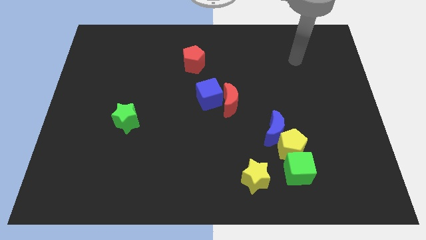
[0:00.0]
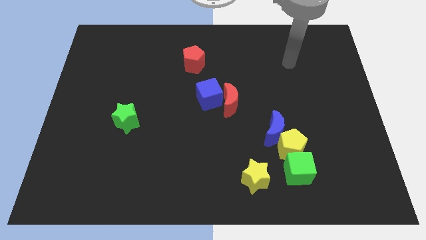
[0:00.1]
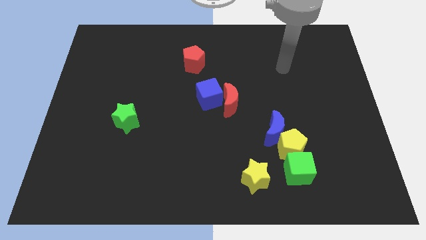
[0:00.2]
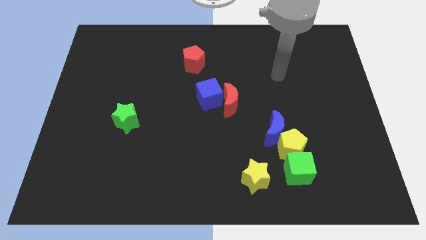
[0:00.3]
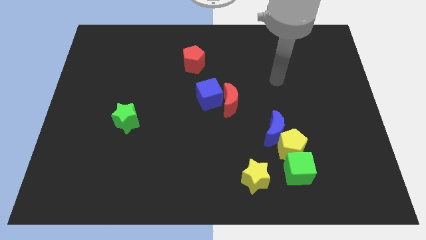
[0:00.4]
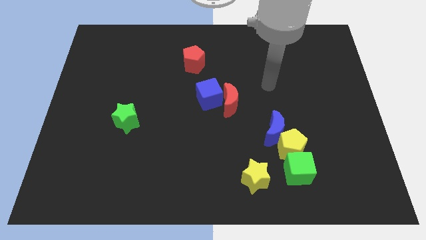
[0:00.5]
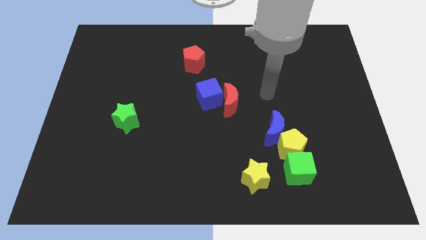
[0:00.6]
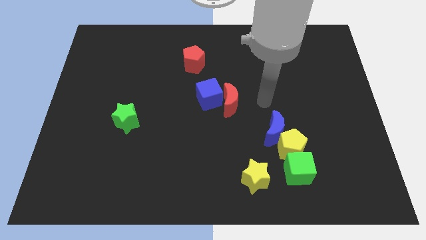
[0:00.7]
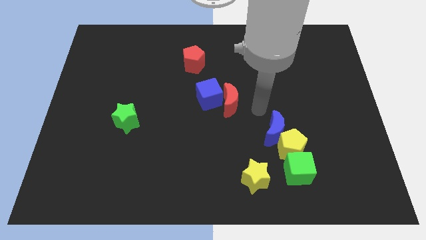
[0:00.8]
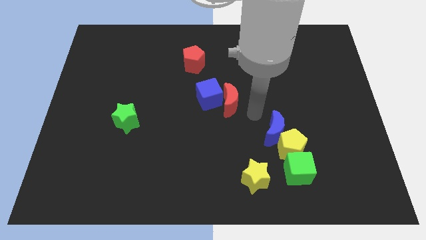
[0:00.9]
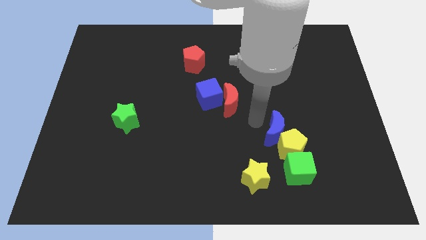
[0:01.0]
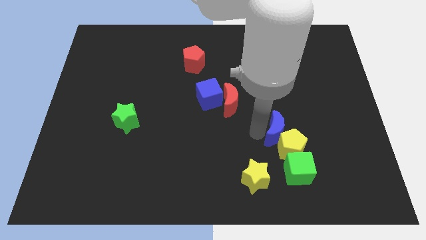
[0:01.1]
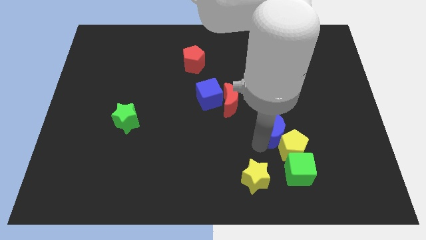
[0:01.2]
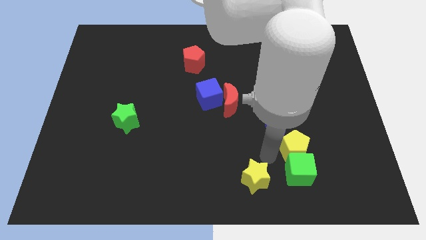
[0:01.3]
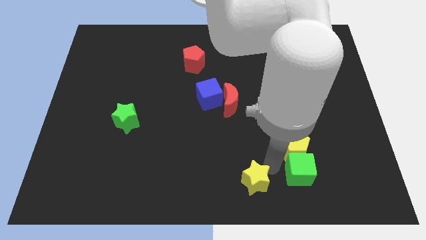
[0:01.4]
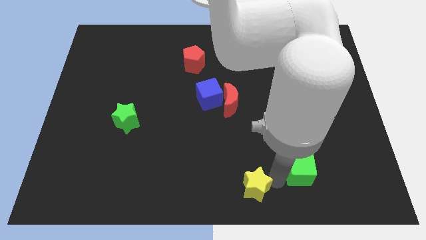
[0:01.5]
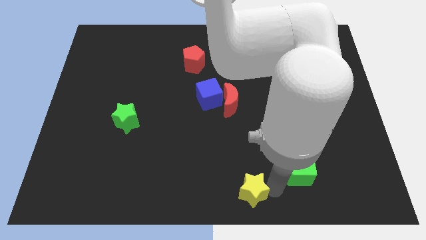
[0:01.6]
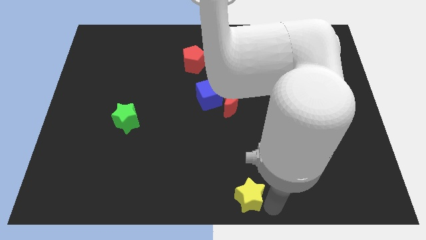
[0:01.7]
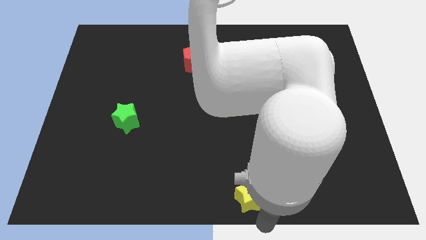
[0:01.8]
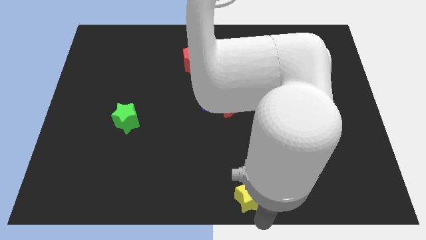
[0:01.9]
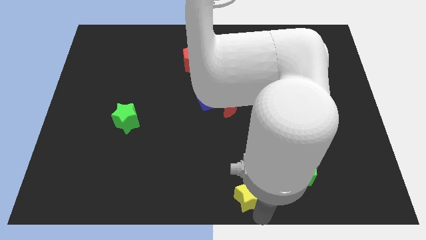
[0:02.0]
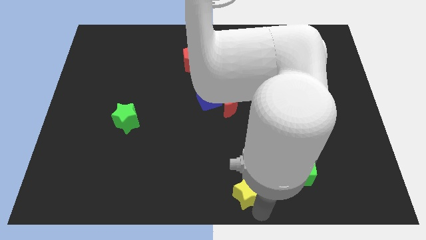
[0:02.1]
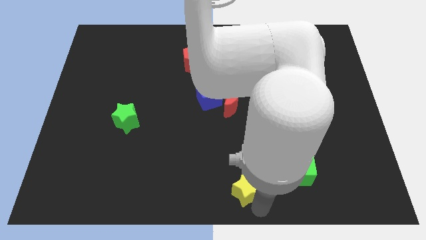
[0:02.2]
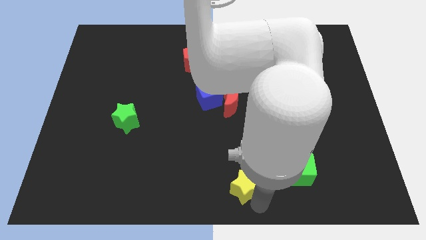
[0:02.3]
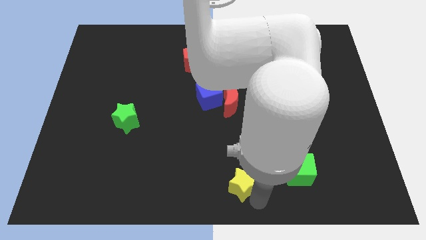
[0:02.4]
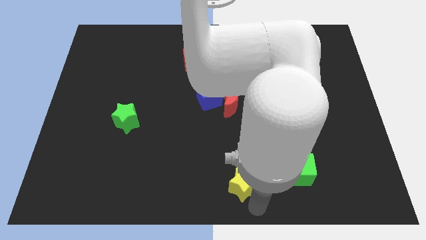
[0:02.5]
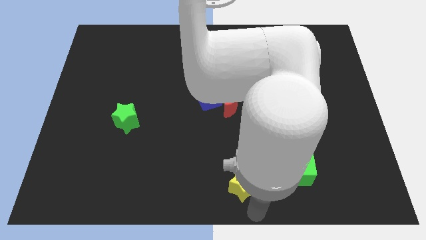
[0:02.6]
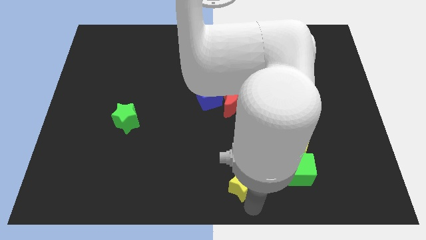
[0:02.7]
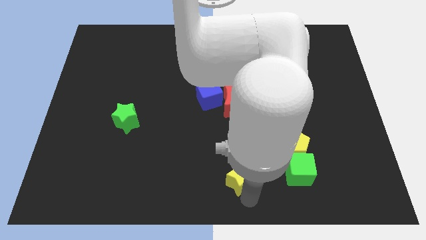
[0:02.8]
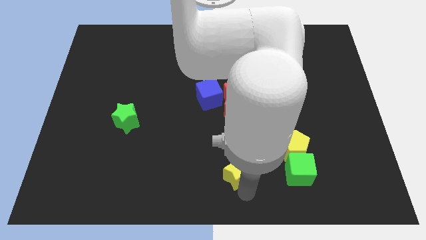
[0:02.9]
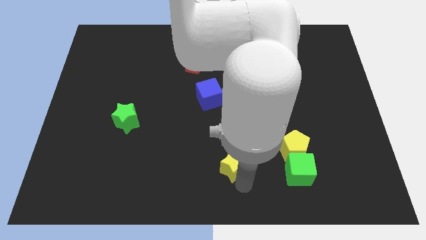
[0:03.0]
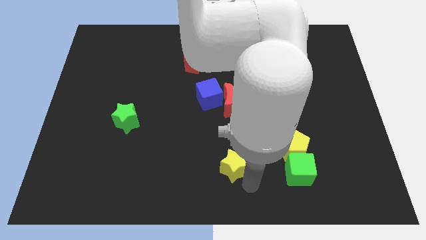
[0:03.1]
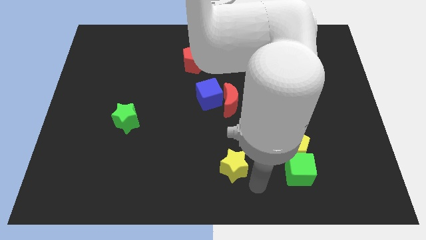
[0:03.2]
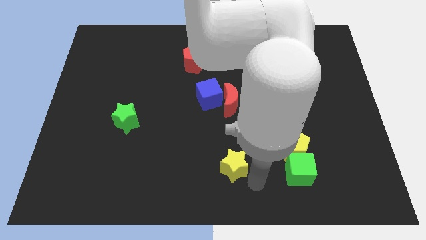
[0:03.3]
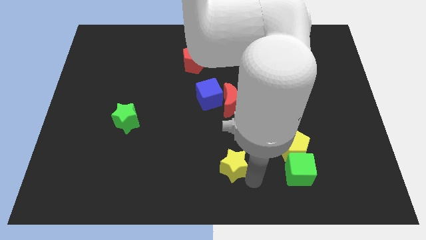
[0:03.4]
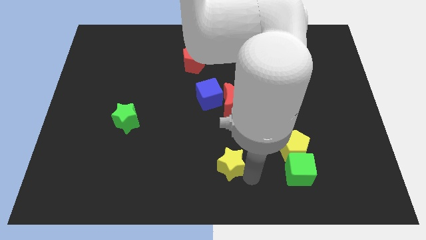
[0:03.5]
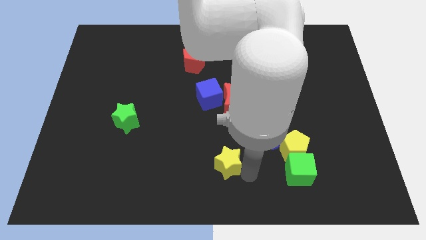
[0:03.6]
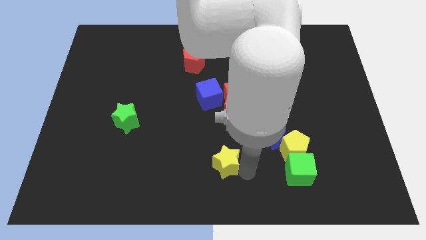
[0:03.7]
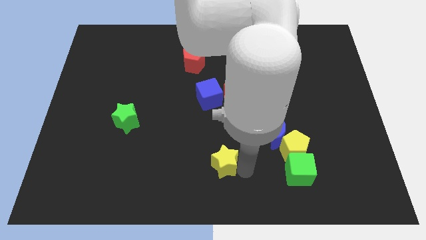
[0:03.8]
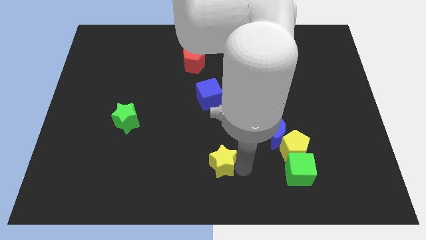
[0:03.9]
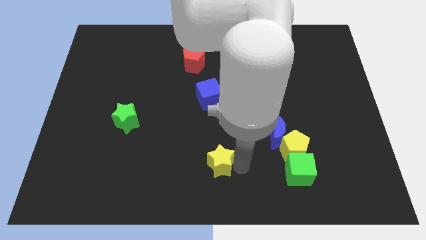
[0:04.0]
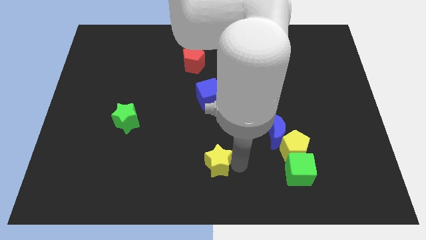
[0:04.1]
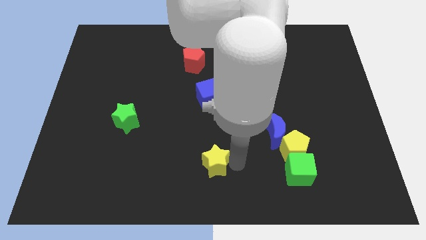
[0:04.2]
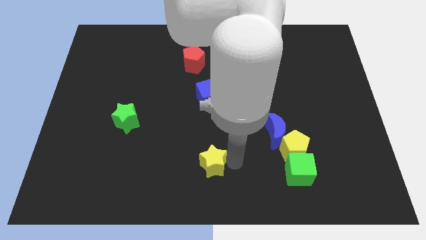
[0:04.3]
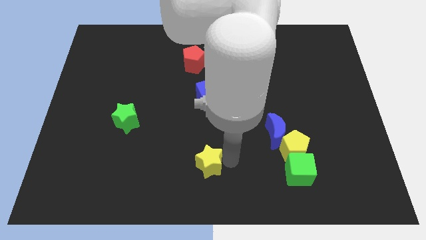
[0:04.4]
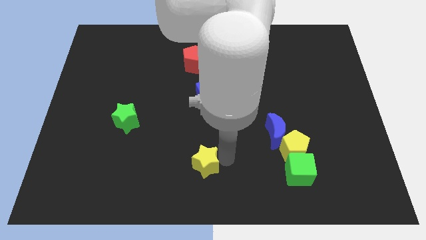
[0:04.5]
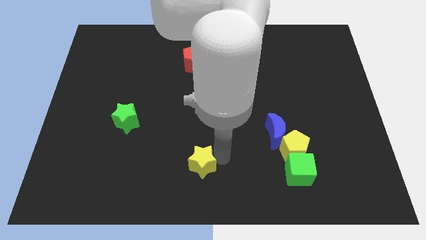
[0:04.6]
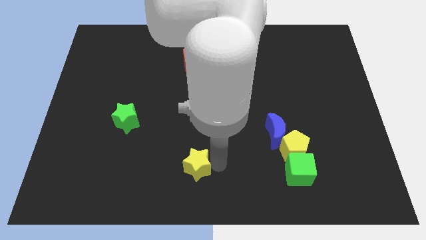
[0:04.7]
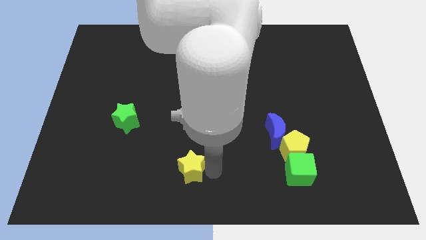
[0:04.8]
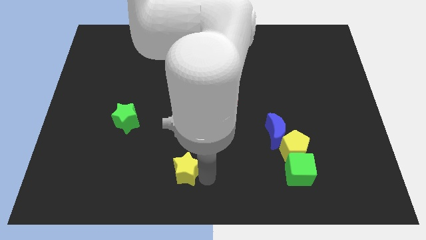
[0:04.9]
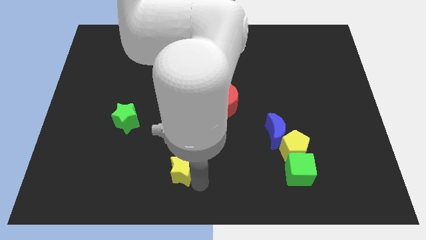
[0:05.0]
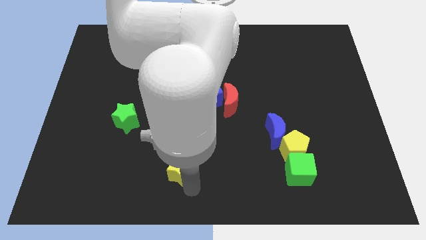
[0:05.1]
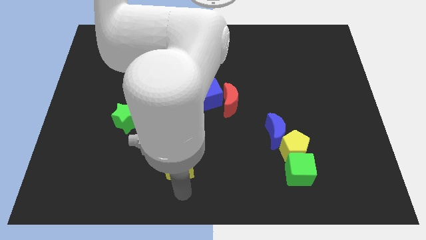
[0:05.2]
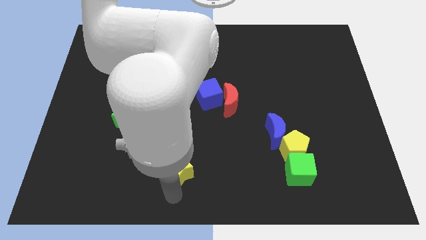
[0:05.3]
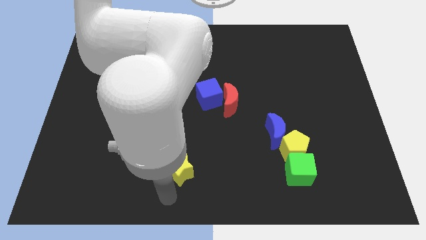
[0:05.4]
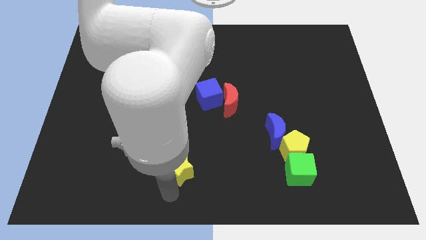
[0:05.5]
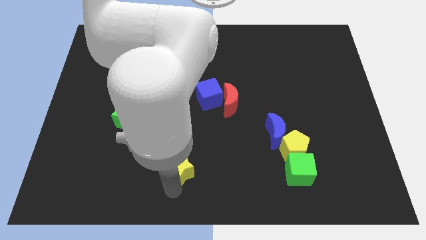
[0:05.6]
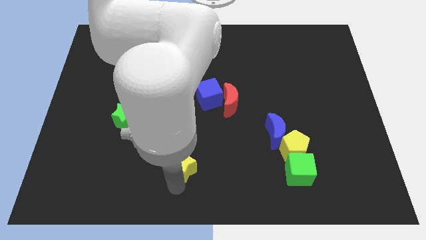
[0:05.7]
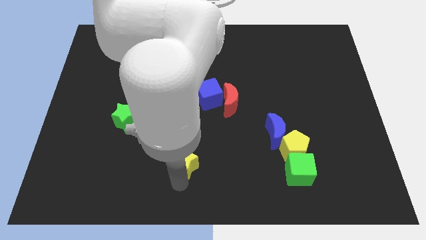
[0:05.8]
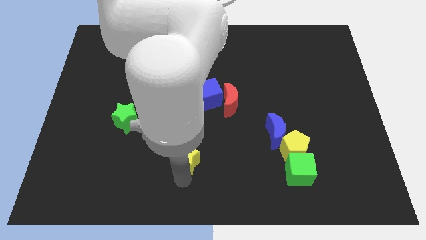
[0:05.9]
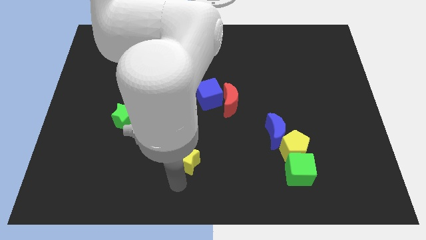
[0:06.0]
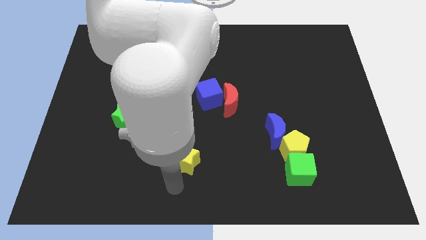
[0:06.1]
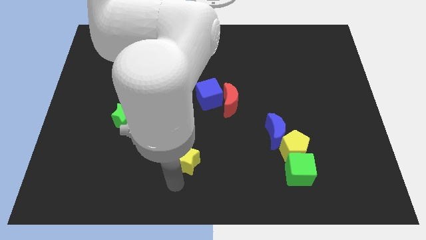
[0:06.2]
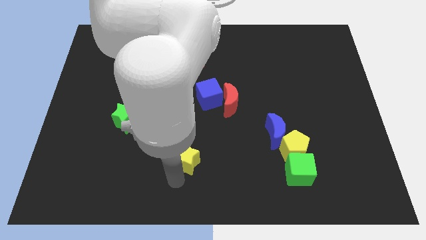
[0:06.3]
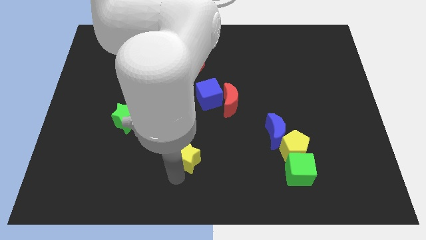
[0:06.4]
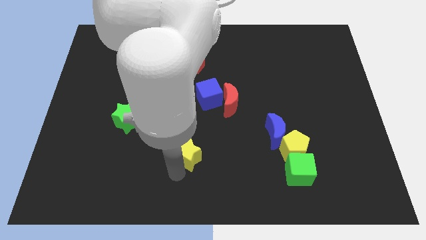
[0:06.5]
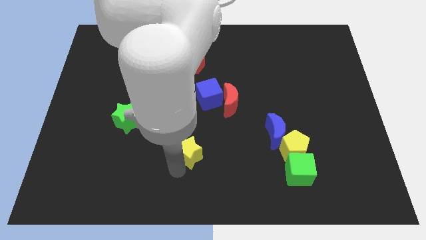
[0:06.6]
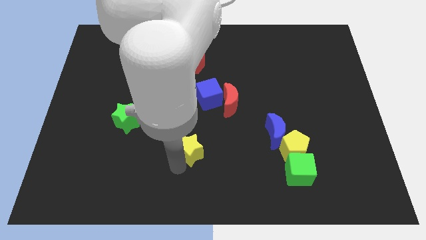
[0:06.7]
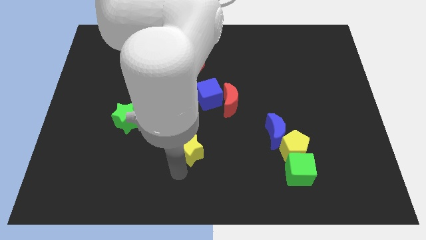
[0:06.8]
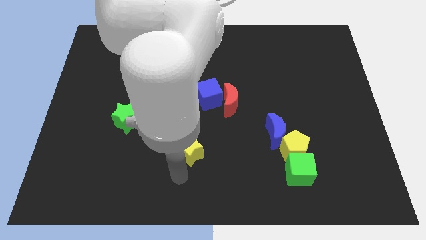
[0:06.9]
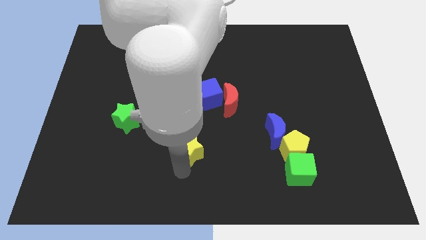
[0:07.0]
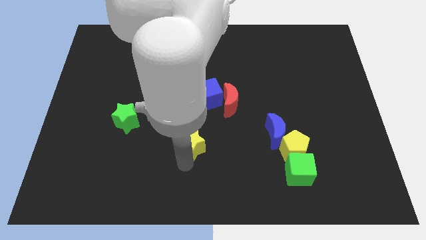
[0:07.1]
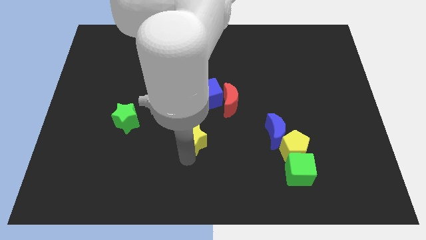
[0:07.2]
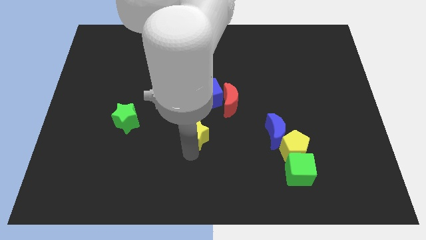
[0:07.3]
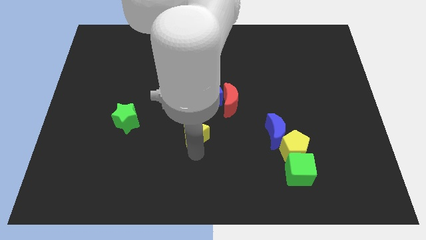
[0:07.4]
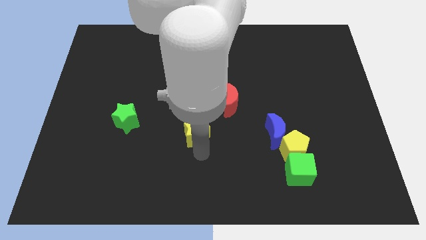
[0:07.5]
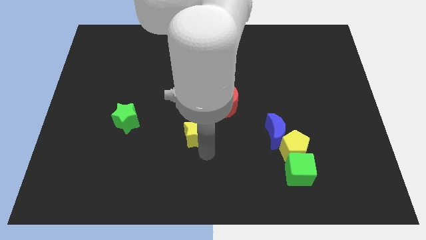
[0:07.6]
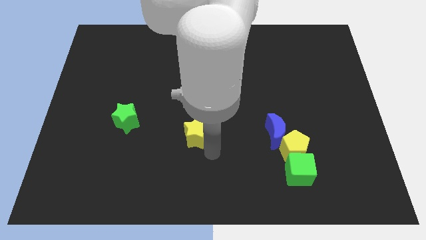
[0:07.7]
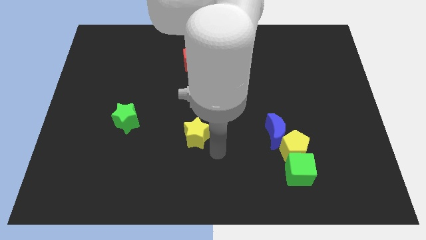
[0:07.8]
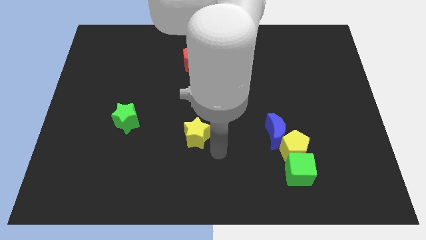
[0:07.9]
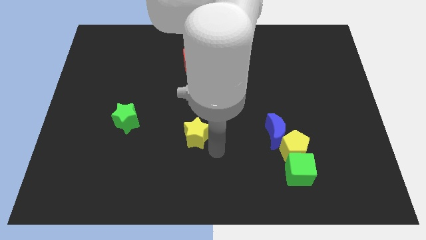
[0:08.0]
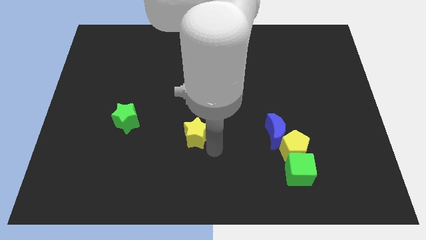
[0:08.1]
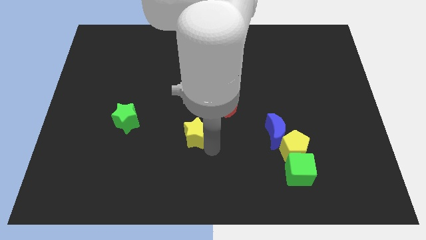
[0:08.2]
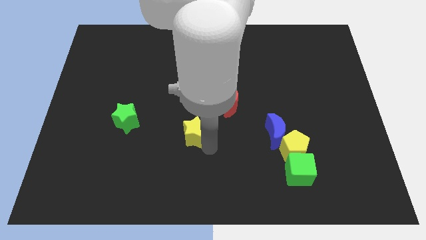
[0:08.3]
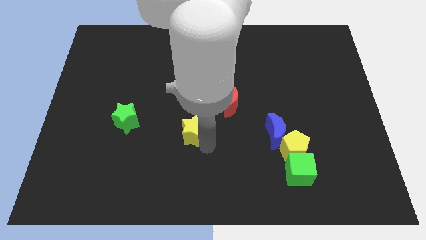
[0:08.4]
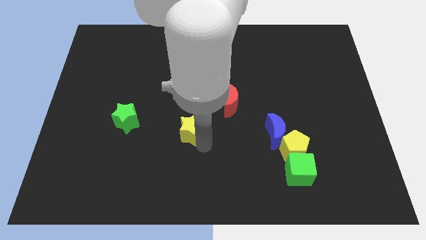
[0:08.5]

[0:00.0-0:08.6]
move the yellow star right of the green star
